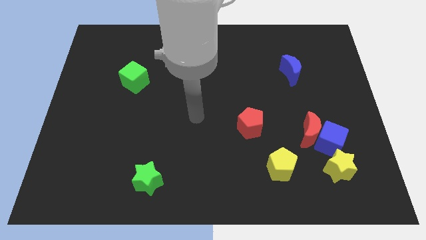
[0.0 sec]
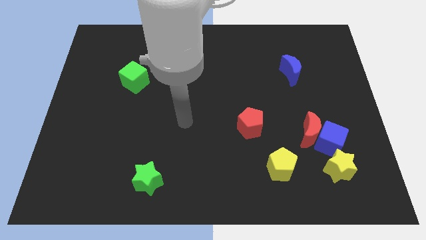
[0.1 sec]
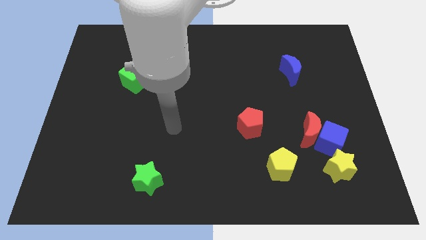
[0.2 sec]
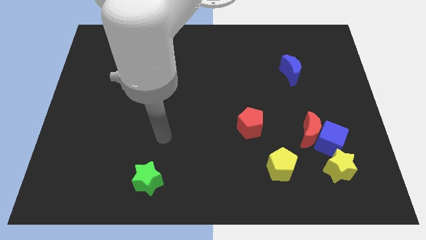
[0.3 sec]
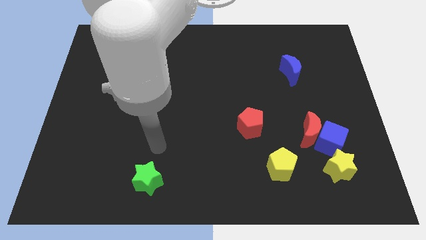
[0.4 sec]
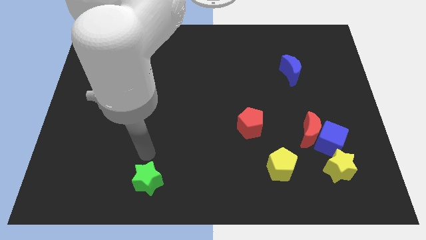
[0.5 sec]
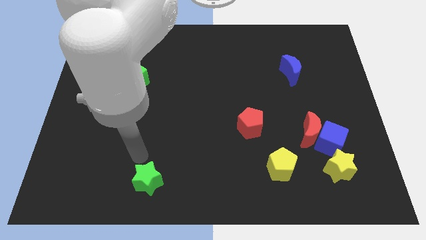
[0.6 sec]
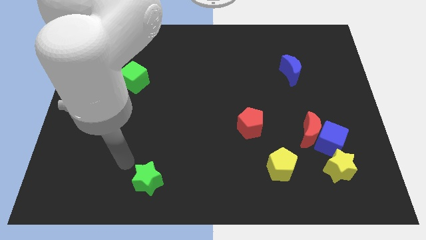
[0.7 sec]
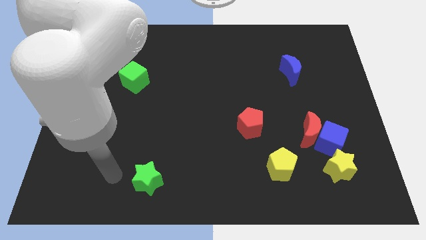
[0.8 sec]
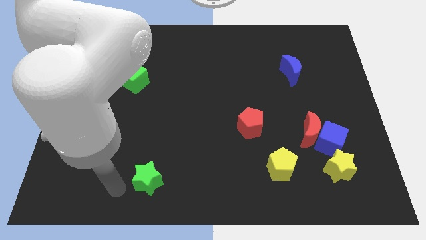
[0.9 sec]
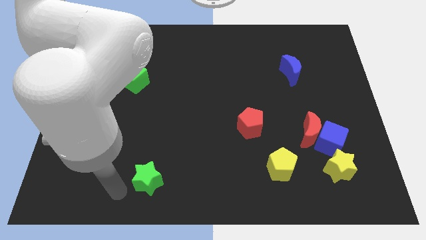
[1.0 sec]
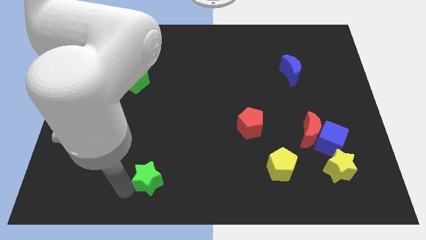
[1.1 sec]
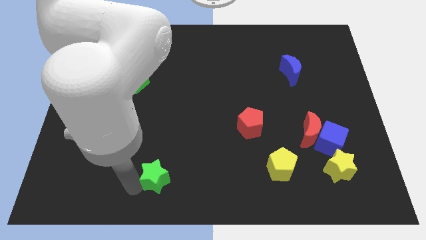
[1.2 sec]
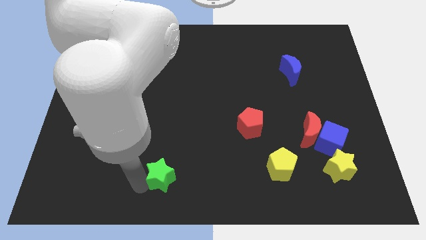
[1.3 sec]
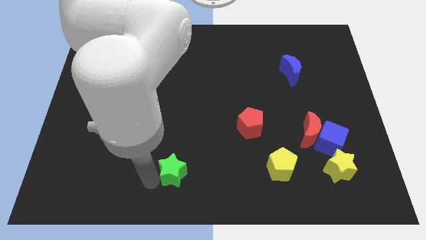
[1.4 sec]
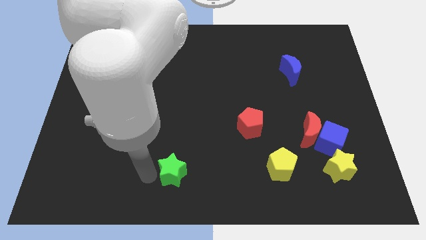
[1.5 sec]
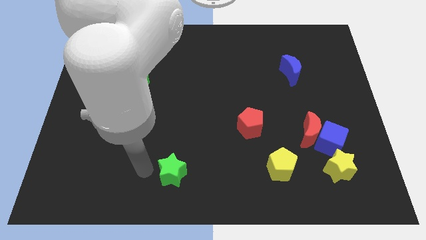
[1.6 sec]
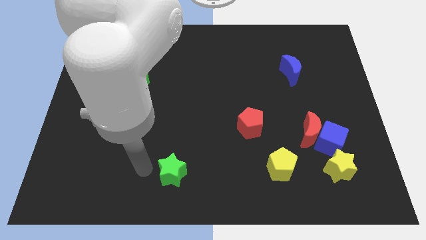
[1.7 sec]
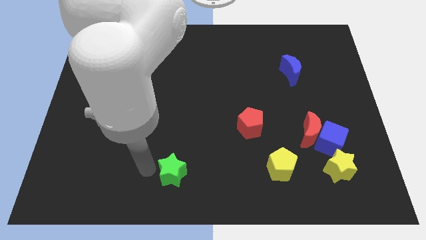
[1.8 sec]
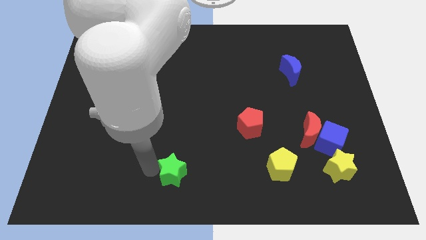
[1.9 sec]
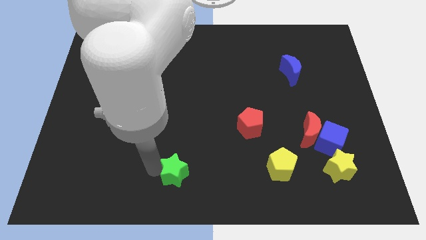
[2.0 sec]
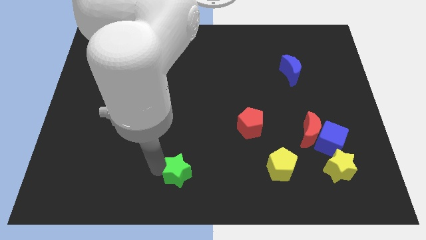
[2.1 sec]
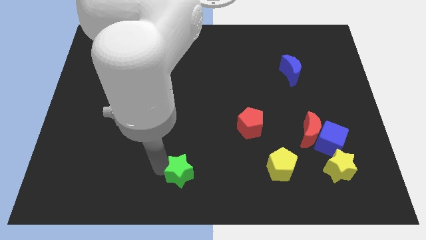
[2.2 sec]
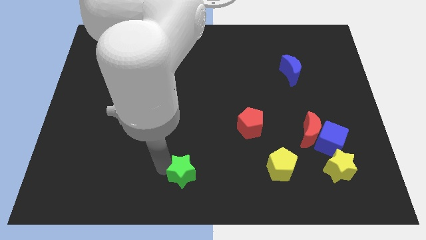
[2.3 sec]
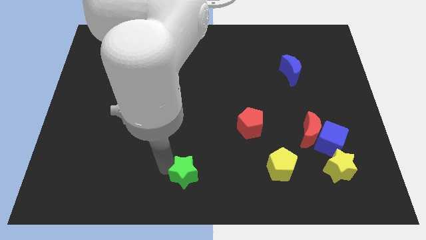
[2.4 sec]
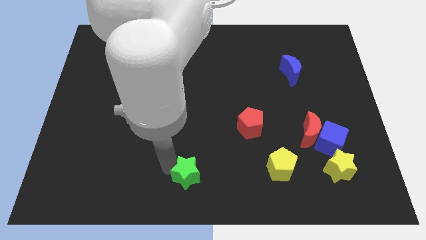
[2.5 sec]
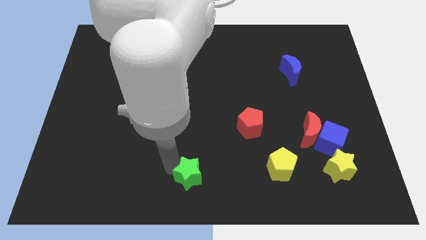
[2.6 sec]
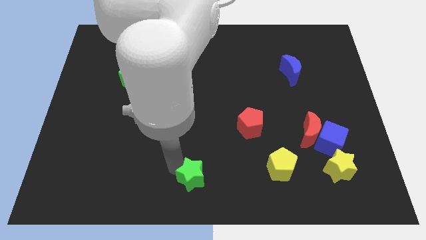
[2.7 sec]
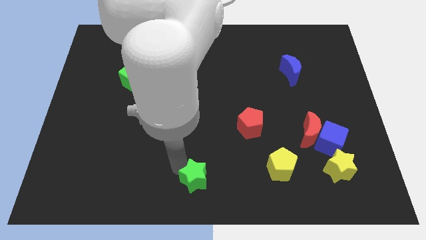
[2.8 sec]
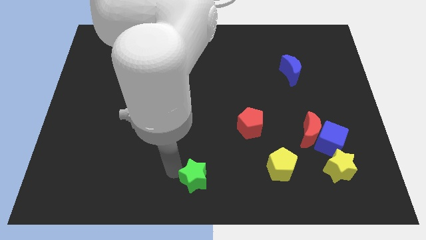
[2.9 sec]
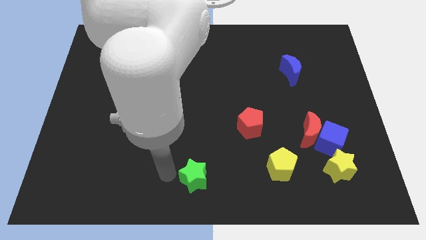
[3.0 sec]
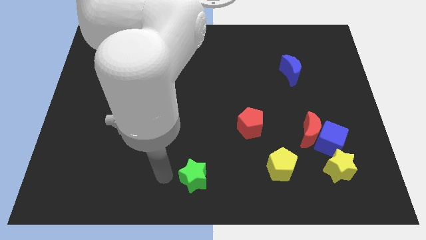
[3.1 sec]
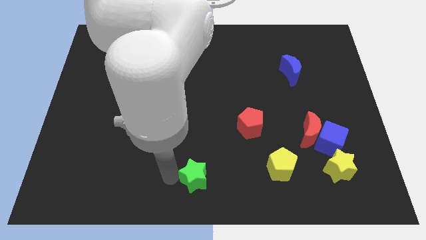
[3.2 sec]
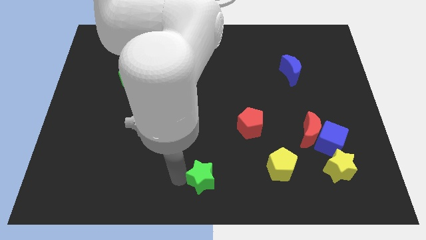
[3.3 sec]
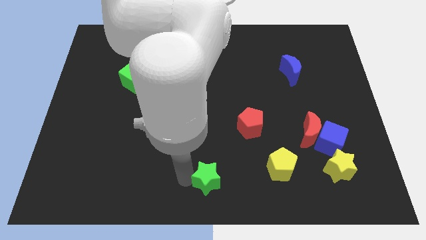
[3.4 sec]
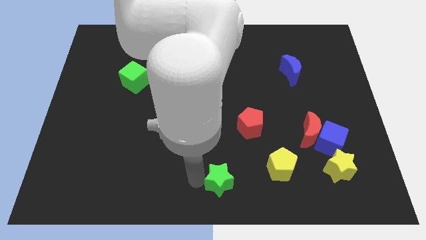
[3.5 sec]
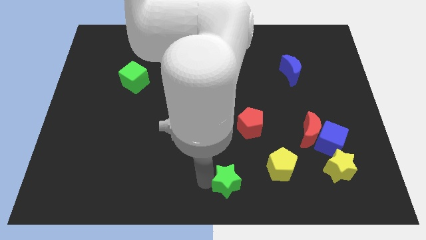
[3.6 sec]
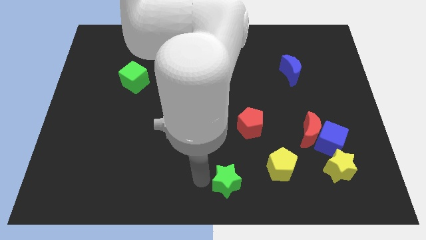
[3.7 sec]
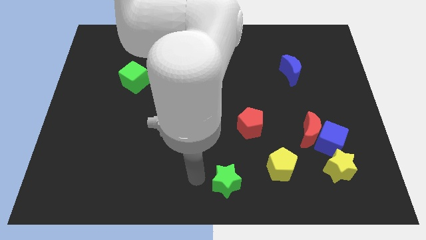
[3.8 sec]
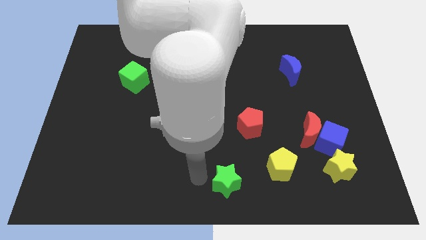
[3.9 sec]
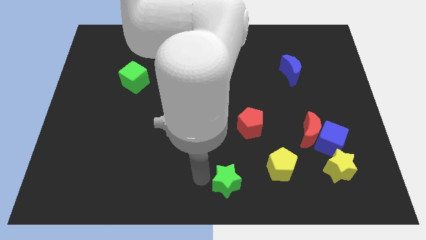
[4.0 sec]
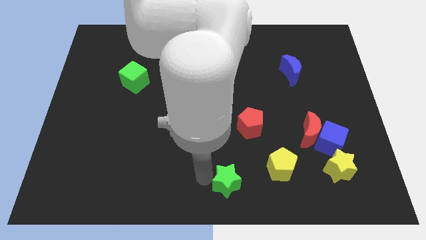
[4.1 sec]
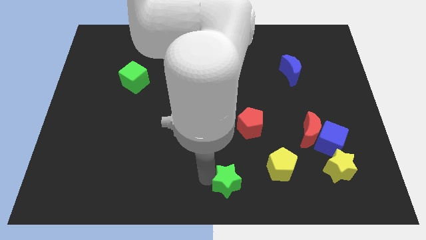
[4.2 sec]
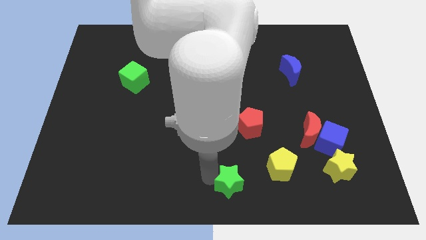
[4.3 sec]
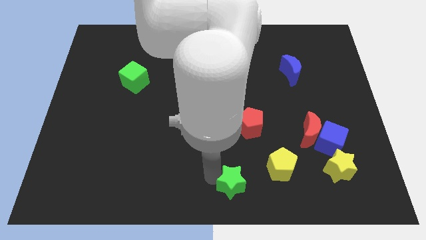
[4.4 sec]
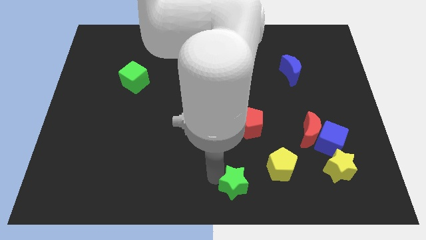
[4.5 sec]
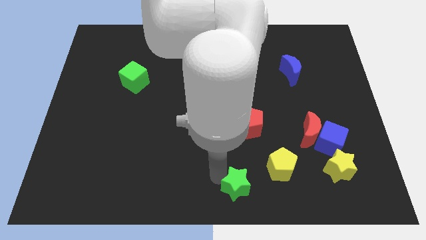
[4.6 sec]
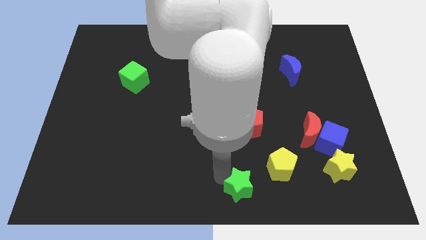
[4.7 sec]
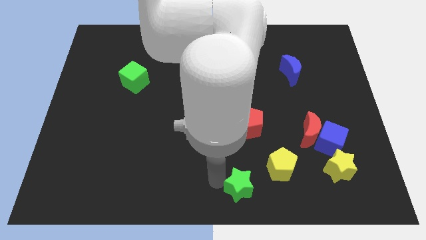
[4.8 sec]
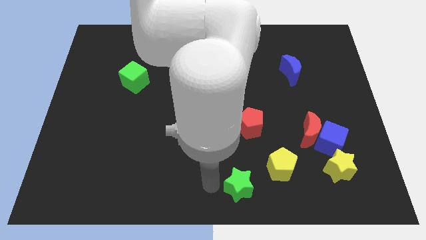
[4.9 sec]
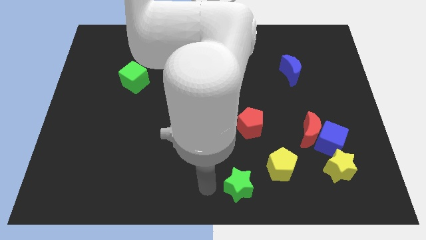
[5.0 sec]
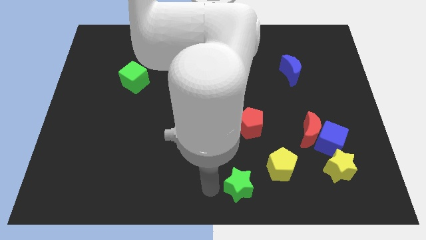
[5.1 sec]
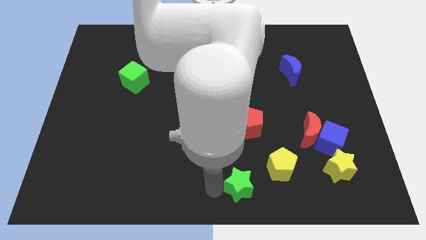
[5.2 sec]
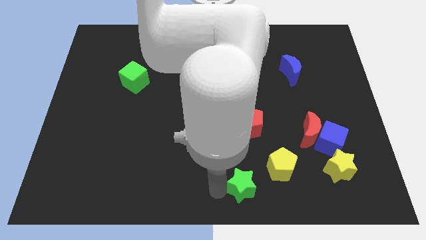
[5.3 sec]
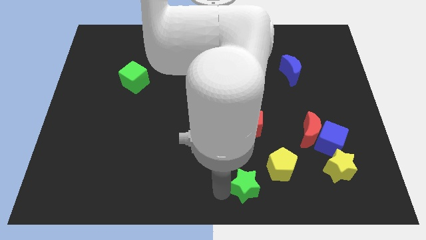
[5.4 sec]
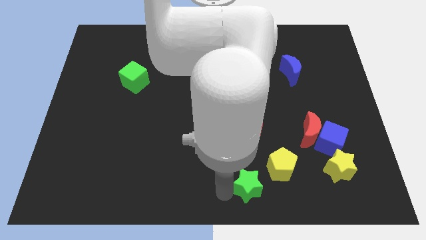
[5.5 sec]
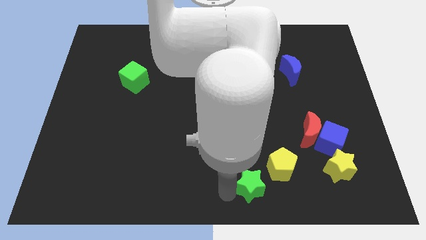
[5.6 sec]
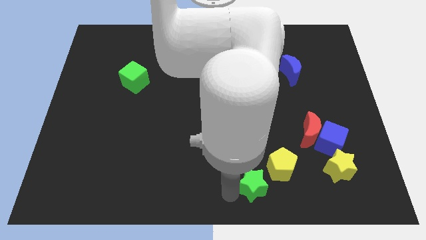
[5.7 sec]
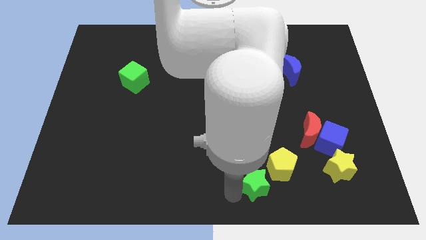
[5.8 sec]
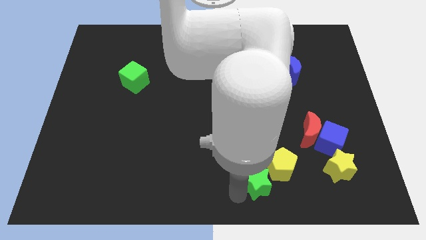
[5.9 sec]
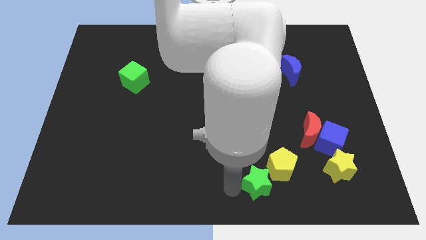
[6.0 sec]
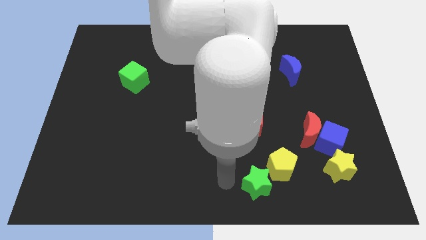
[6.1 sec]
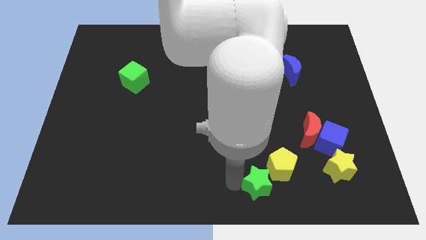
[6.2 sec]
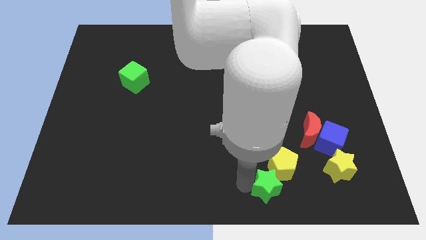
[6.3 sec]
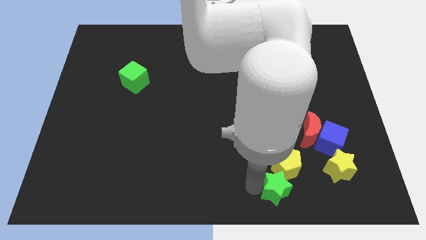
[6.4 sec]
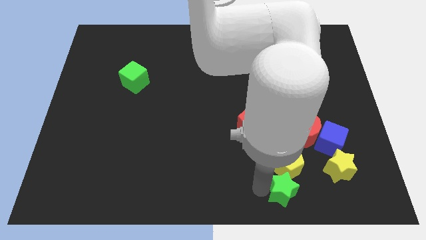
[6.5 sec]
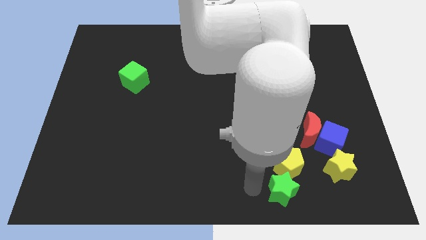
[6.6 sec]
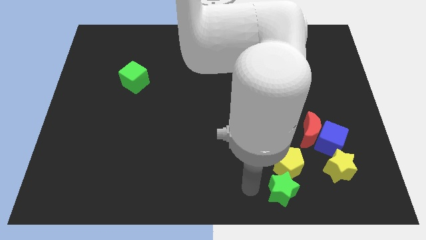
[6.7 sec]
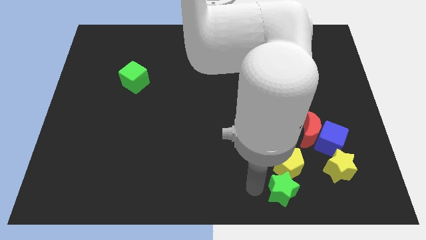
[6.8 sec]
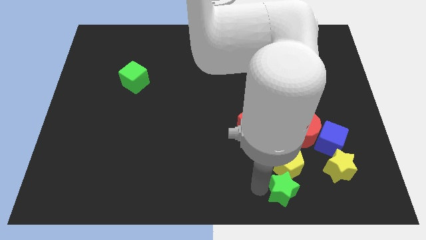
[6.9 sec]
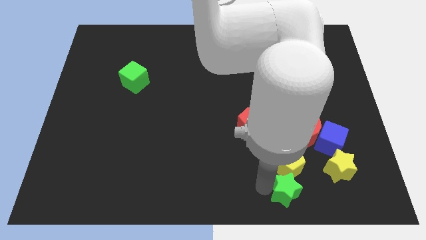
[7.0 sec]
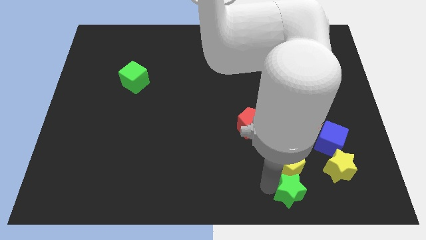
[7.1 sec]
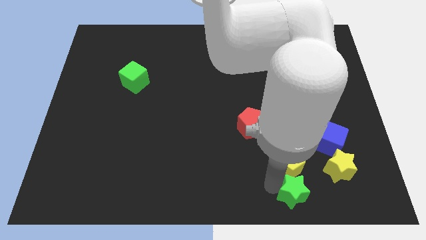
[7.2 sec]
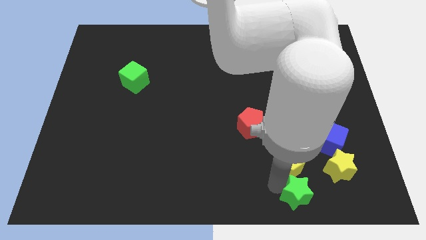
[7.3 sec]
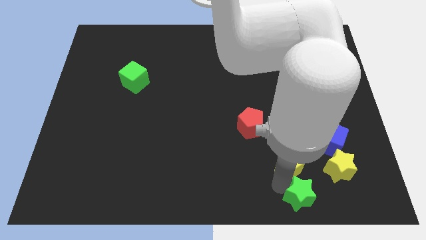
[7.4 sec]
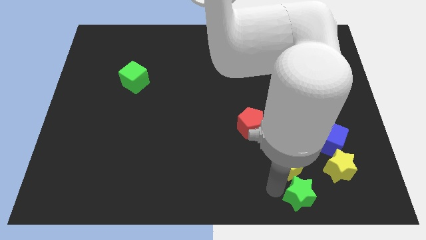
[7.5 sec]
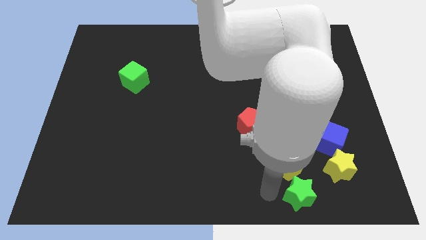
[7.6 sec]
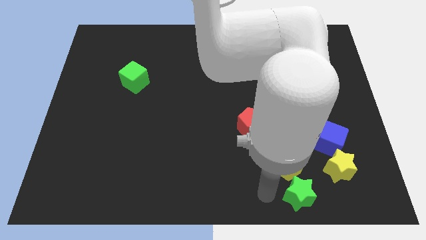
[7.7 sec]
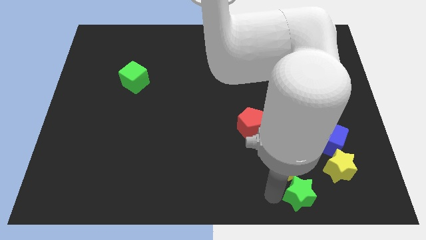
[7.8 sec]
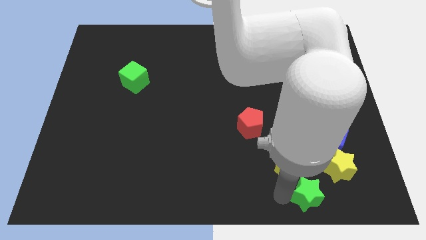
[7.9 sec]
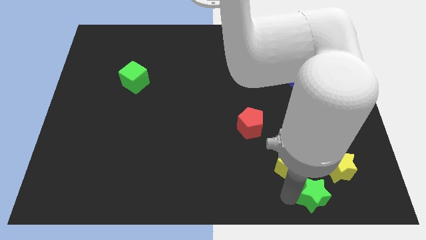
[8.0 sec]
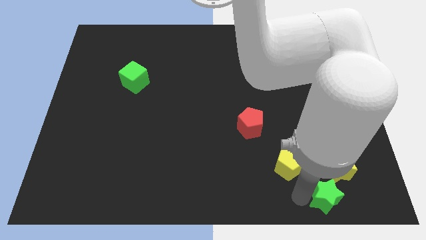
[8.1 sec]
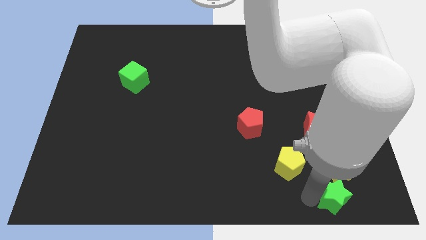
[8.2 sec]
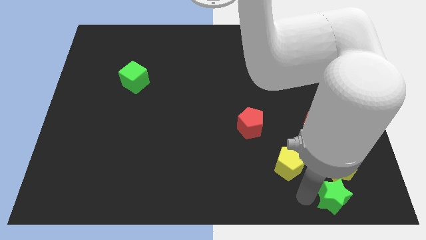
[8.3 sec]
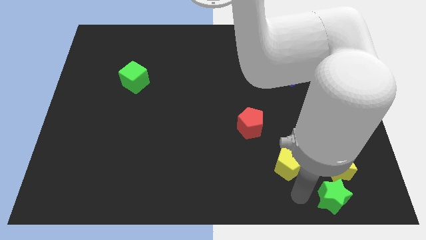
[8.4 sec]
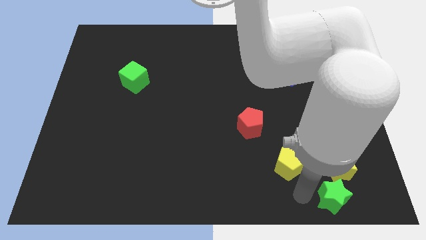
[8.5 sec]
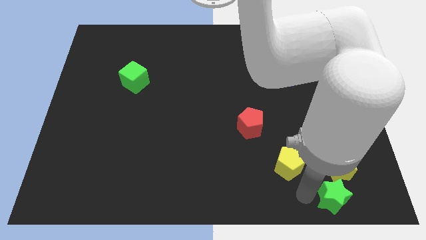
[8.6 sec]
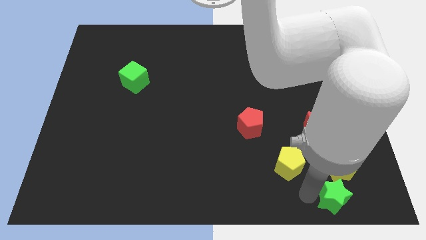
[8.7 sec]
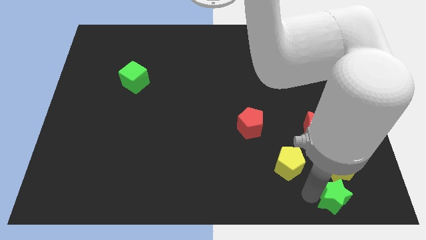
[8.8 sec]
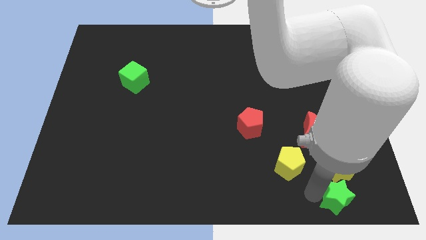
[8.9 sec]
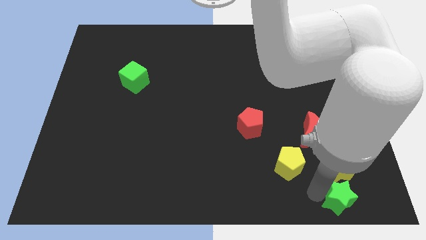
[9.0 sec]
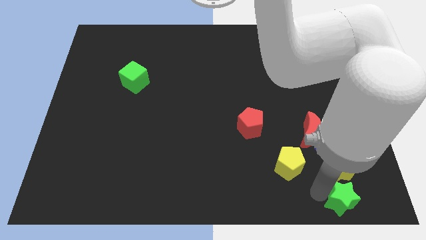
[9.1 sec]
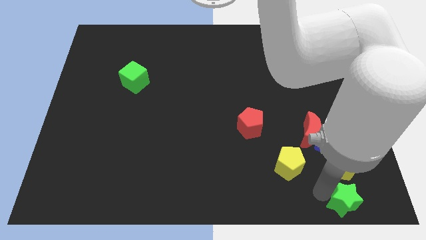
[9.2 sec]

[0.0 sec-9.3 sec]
put the green star to the bottom right corner
